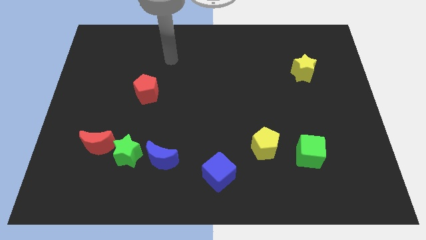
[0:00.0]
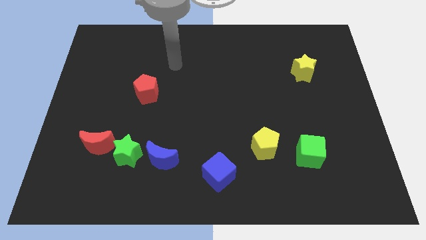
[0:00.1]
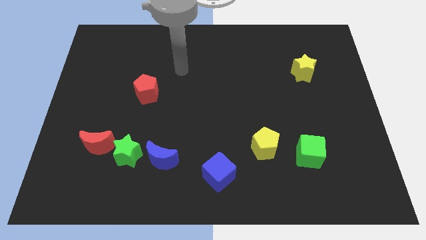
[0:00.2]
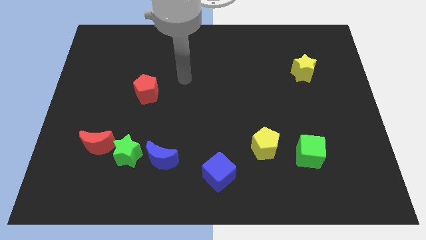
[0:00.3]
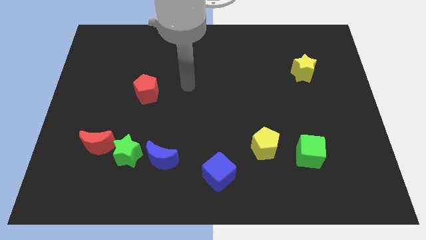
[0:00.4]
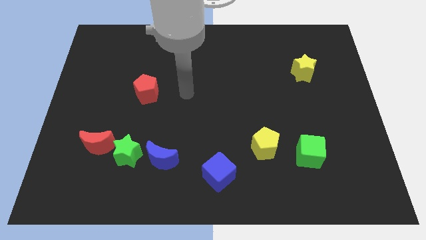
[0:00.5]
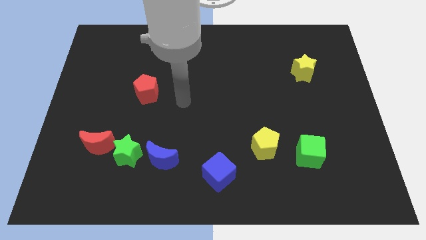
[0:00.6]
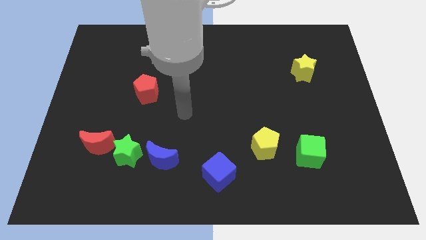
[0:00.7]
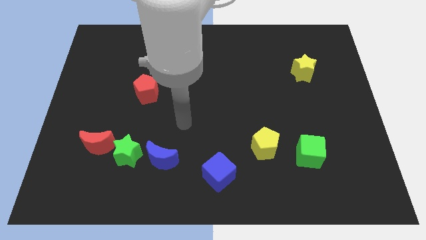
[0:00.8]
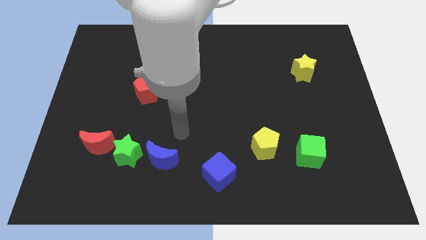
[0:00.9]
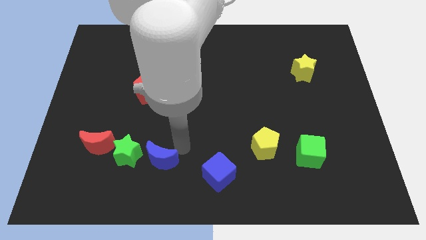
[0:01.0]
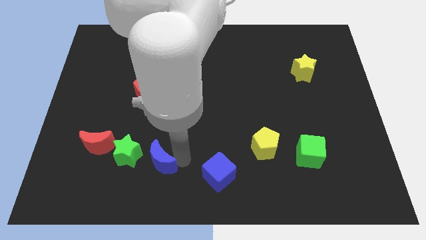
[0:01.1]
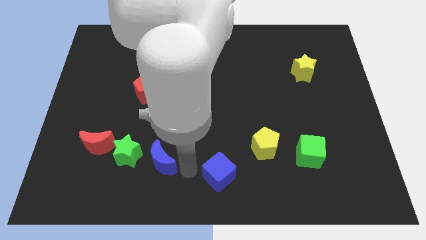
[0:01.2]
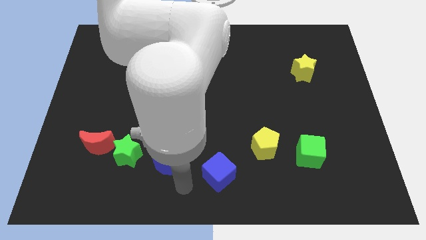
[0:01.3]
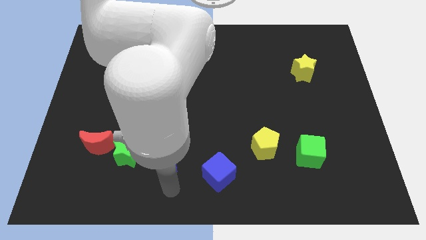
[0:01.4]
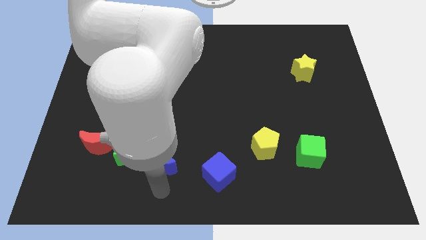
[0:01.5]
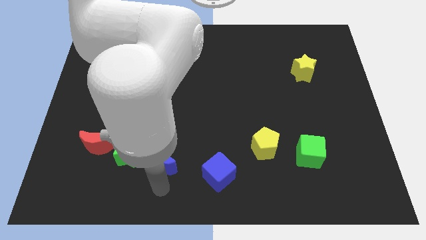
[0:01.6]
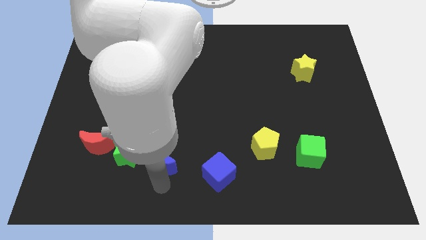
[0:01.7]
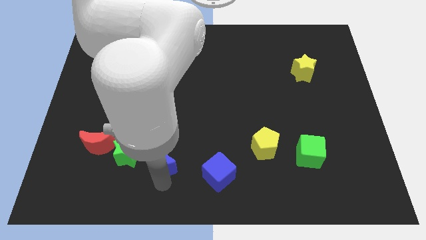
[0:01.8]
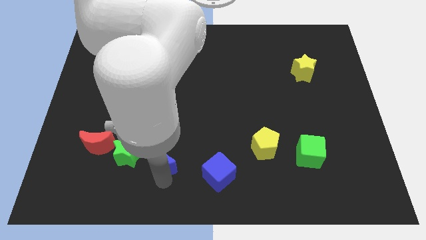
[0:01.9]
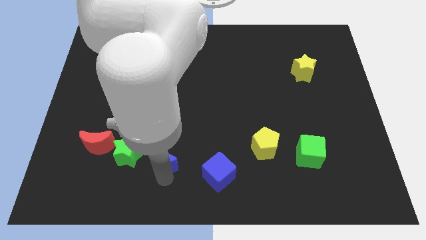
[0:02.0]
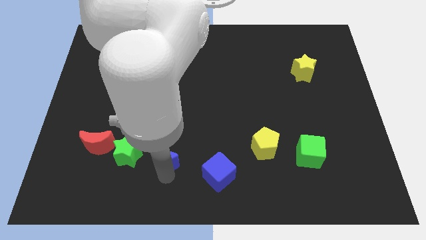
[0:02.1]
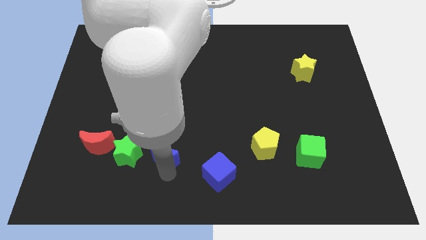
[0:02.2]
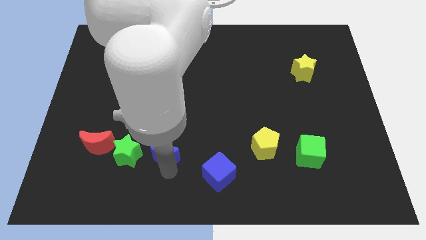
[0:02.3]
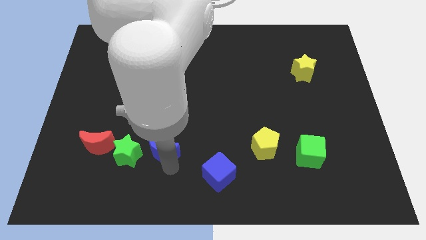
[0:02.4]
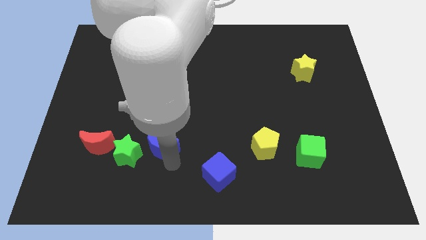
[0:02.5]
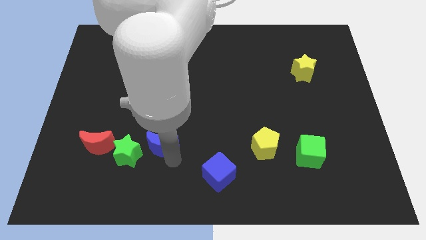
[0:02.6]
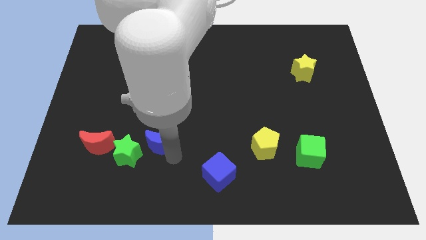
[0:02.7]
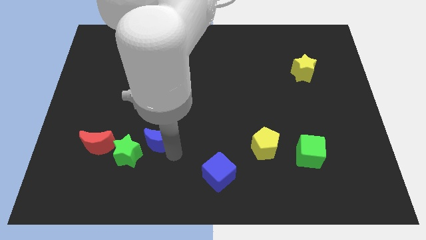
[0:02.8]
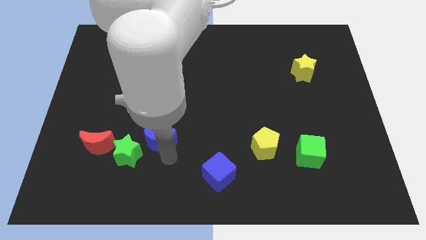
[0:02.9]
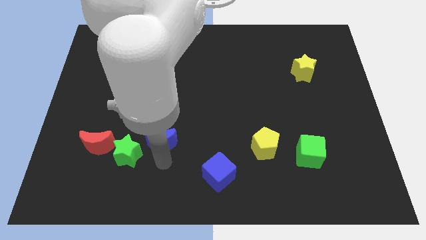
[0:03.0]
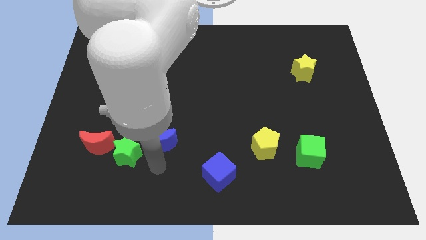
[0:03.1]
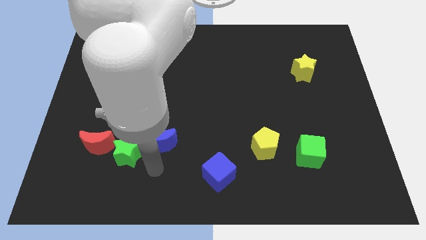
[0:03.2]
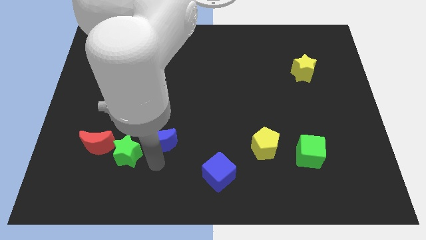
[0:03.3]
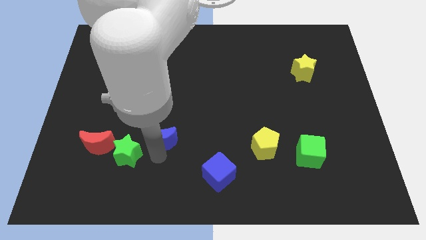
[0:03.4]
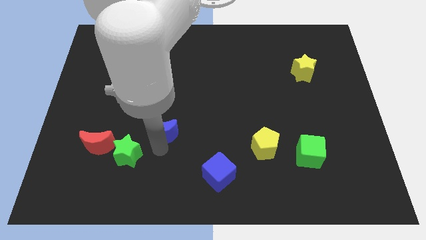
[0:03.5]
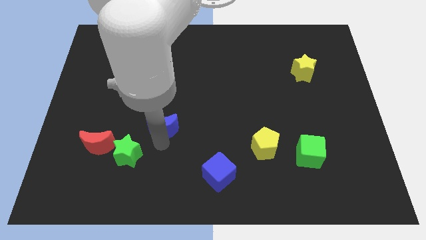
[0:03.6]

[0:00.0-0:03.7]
slightly push the blue moon up

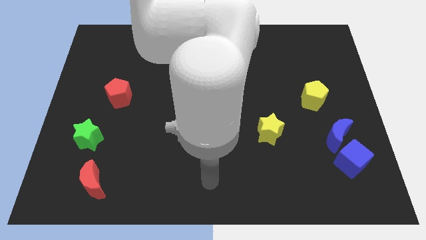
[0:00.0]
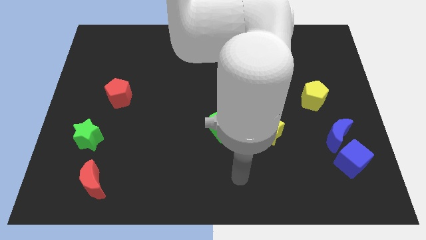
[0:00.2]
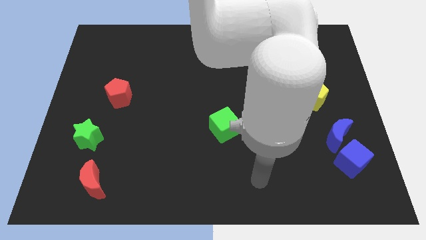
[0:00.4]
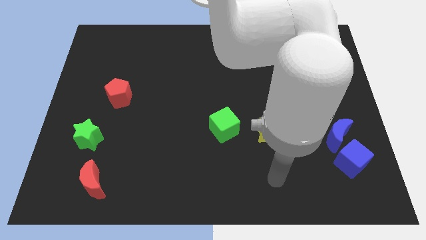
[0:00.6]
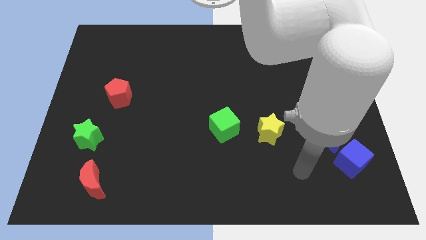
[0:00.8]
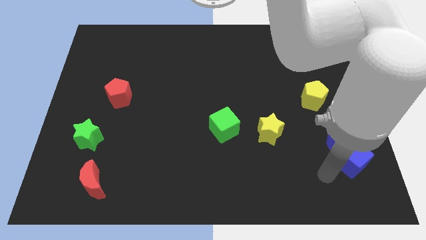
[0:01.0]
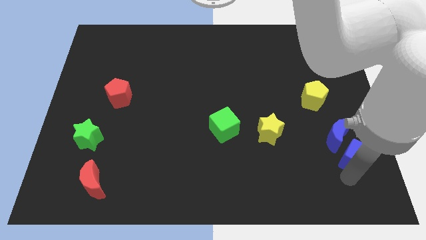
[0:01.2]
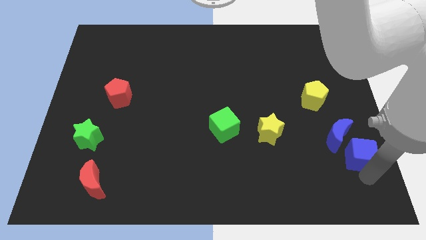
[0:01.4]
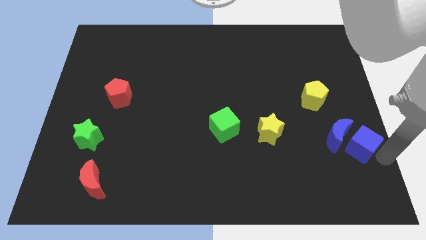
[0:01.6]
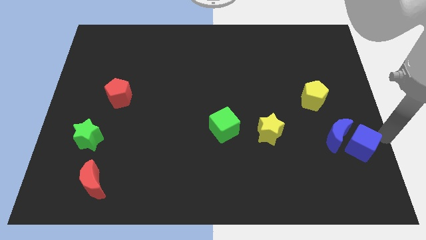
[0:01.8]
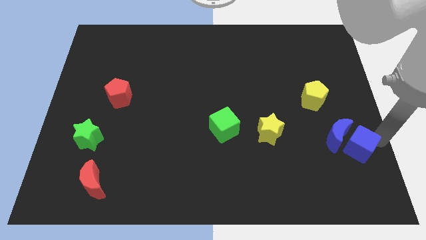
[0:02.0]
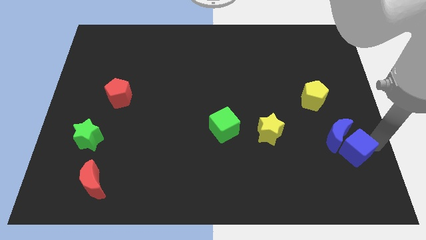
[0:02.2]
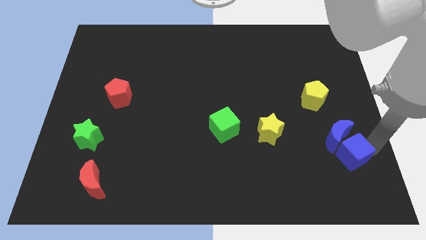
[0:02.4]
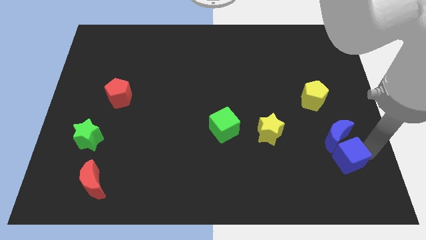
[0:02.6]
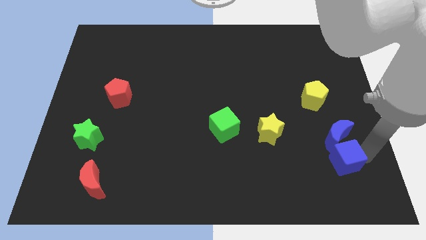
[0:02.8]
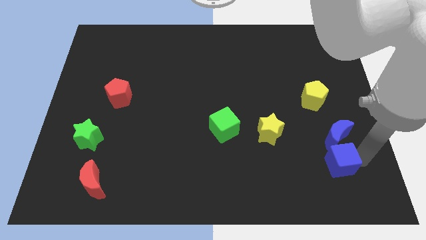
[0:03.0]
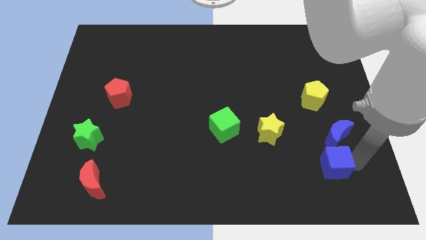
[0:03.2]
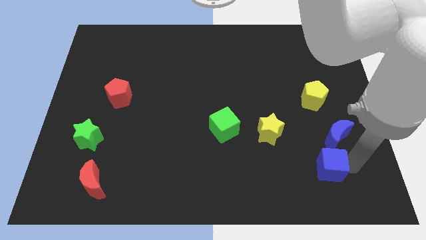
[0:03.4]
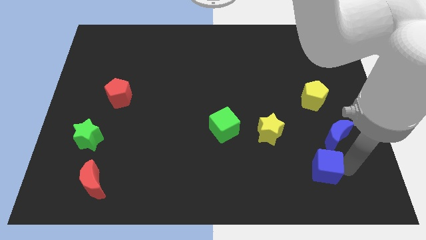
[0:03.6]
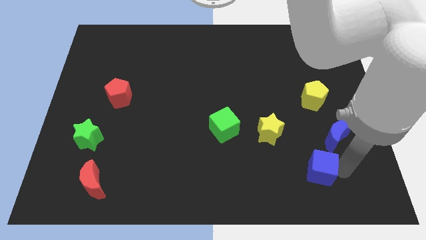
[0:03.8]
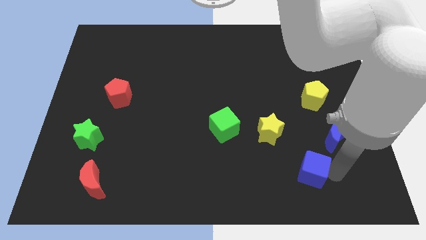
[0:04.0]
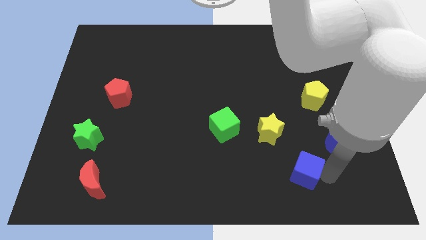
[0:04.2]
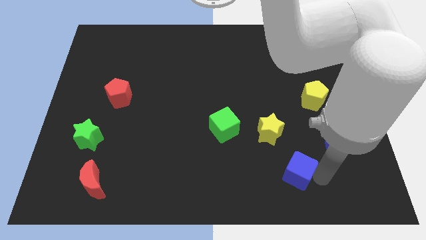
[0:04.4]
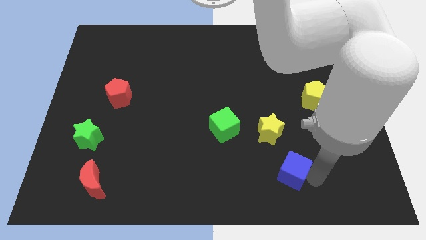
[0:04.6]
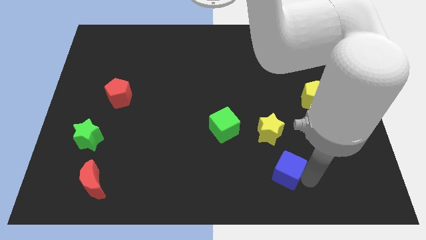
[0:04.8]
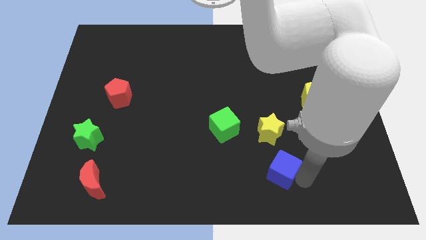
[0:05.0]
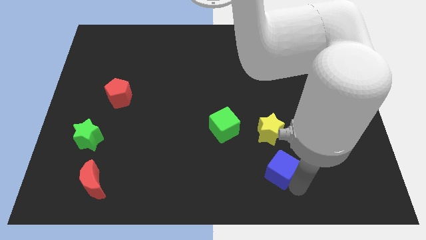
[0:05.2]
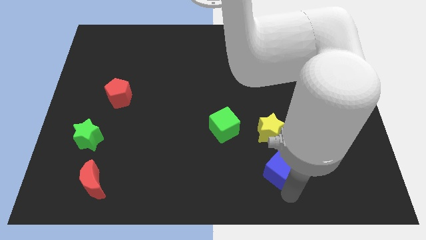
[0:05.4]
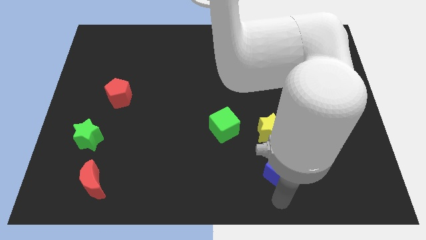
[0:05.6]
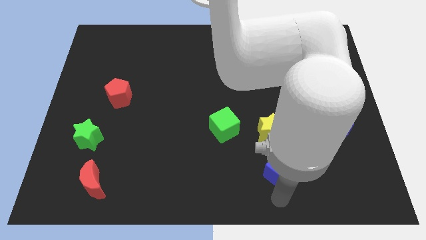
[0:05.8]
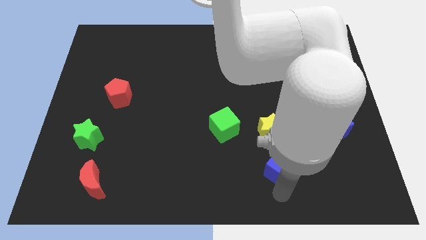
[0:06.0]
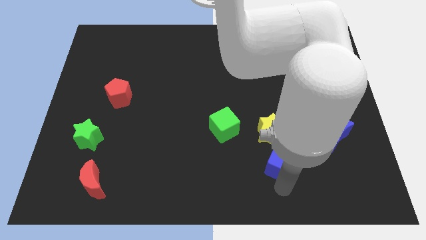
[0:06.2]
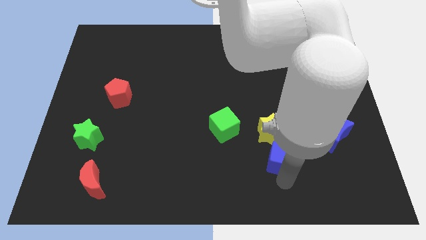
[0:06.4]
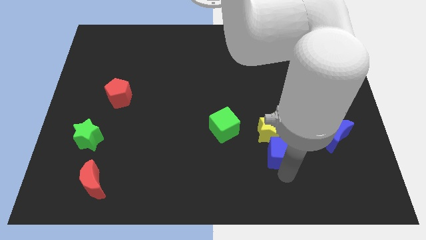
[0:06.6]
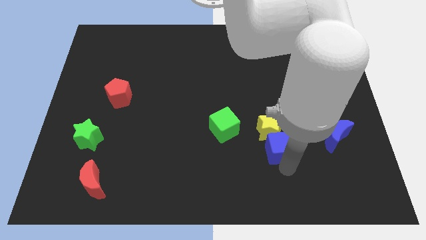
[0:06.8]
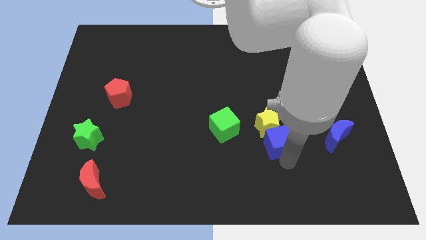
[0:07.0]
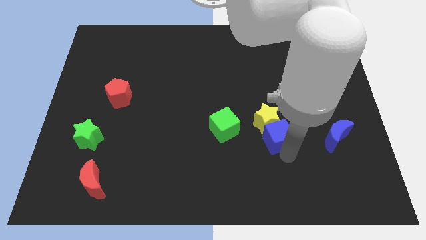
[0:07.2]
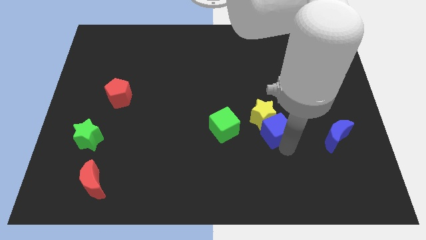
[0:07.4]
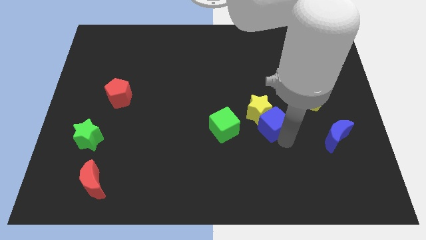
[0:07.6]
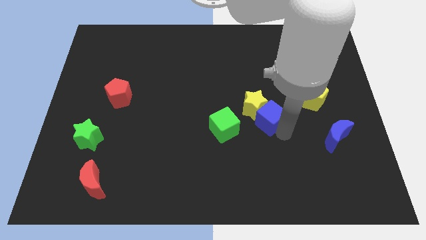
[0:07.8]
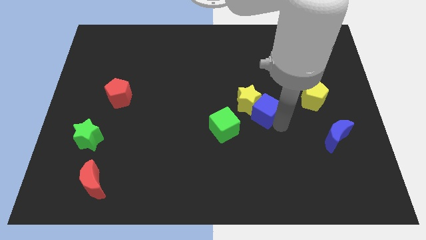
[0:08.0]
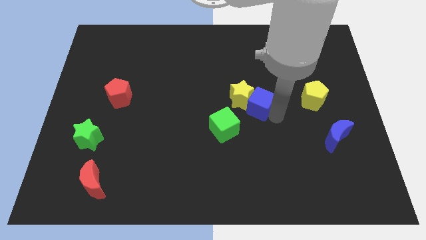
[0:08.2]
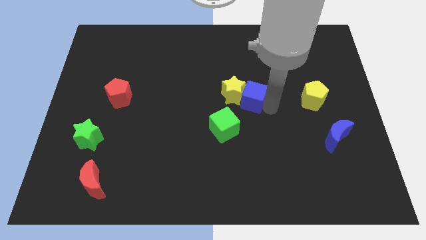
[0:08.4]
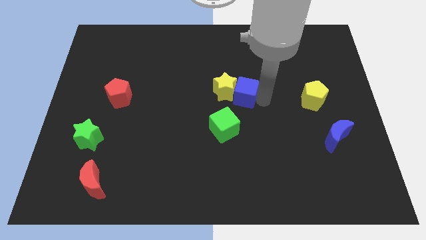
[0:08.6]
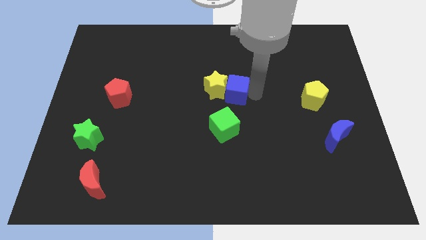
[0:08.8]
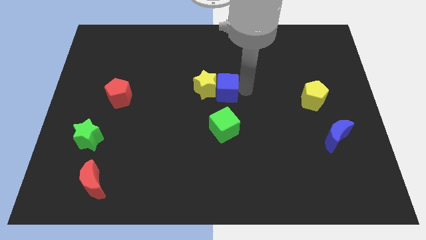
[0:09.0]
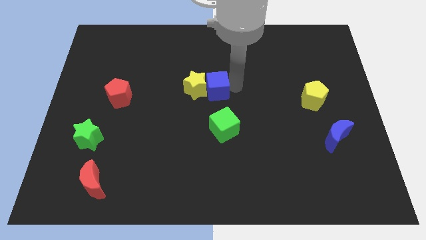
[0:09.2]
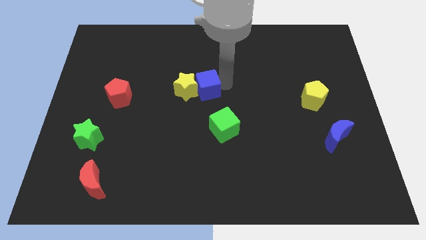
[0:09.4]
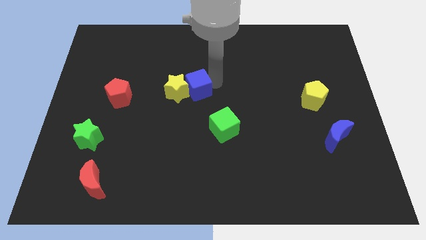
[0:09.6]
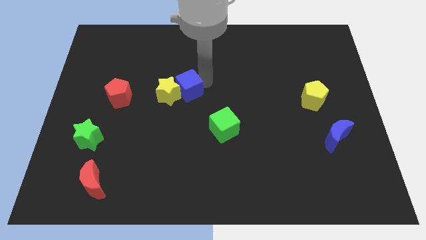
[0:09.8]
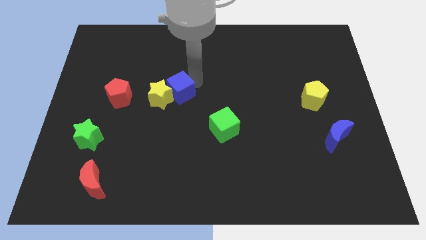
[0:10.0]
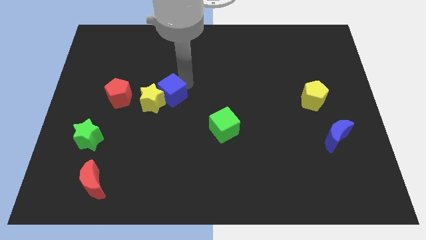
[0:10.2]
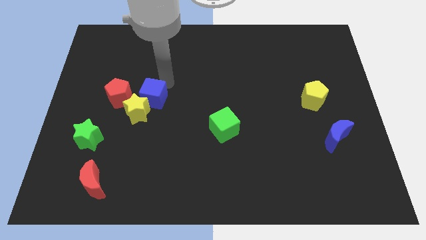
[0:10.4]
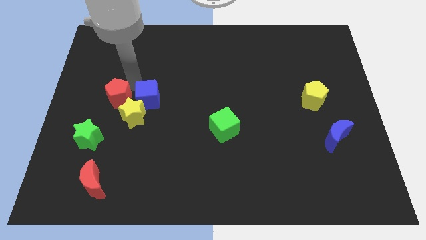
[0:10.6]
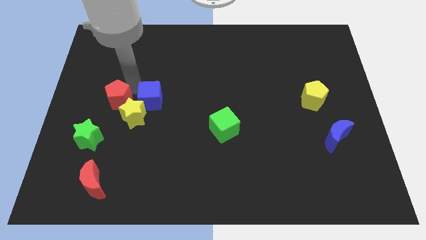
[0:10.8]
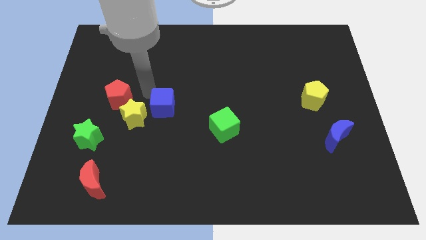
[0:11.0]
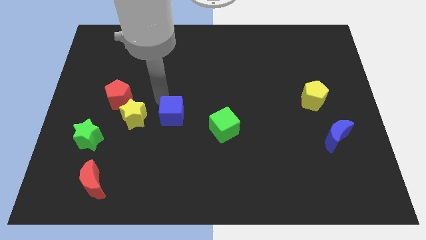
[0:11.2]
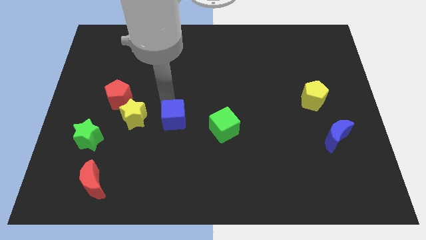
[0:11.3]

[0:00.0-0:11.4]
slide the blue cube to the left
